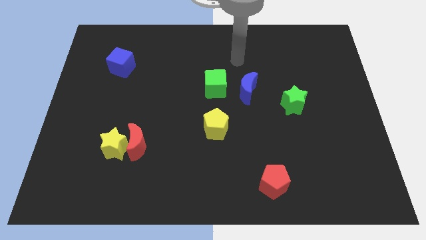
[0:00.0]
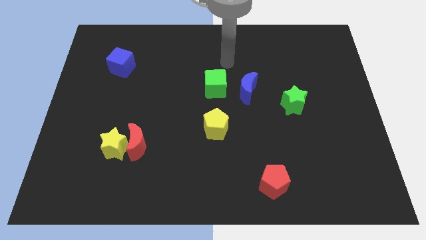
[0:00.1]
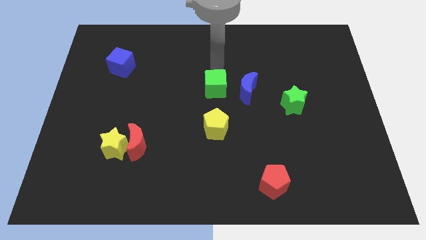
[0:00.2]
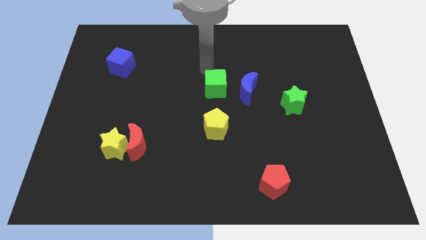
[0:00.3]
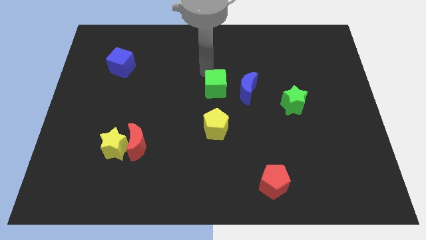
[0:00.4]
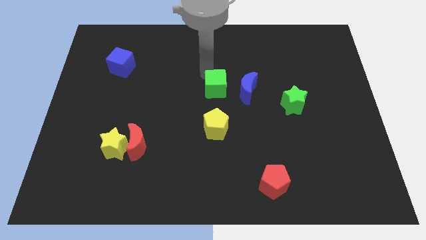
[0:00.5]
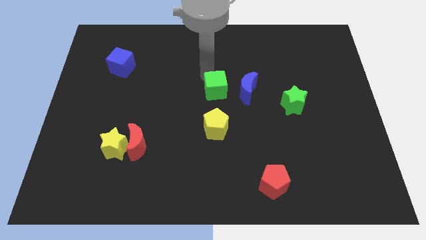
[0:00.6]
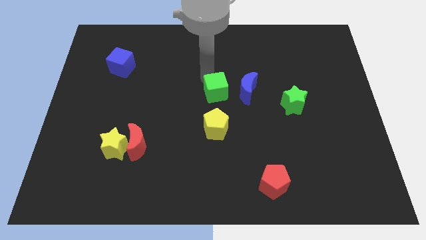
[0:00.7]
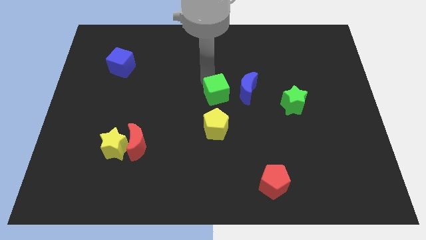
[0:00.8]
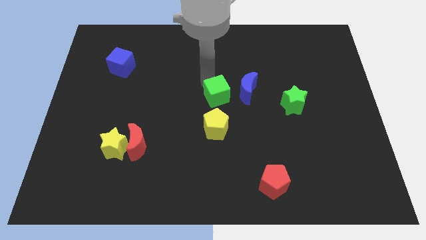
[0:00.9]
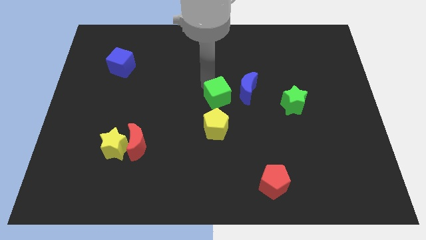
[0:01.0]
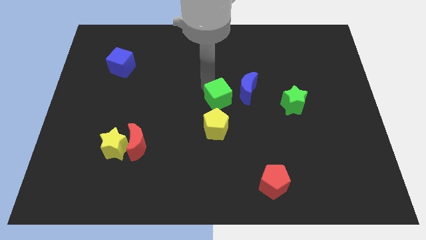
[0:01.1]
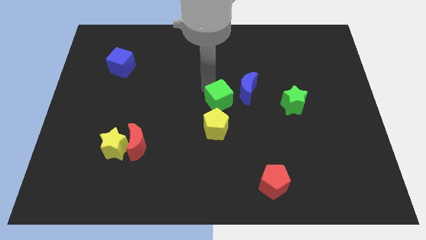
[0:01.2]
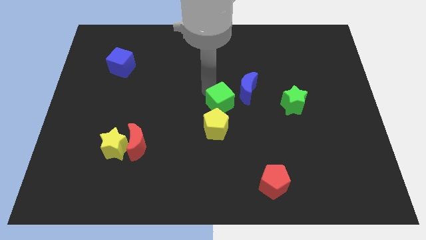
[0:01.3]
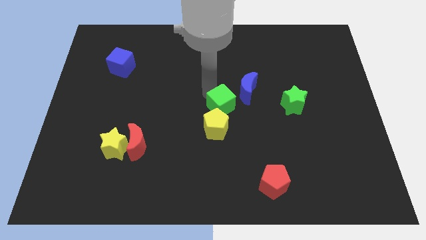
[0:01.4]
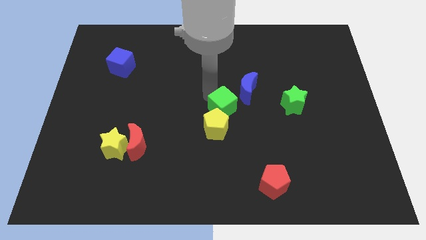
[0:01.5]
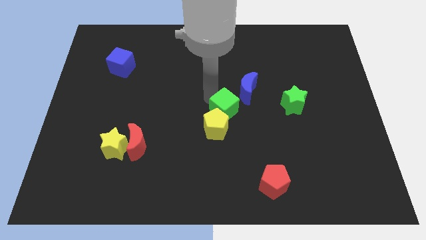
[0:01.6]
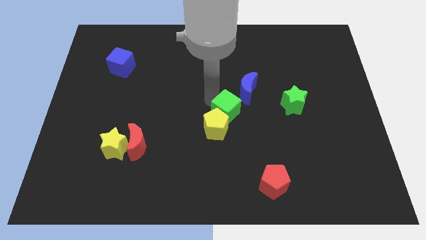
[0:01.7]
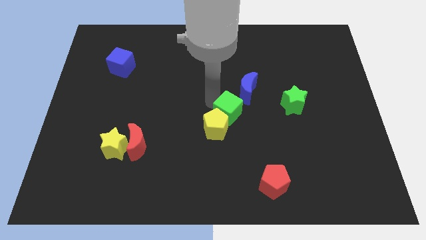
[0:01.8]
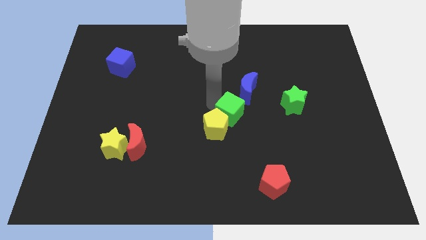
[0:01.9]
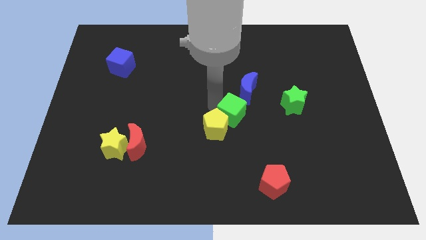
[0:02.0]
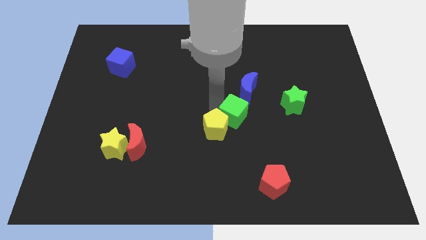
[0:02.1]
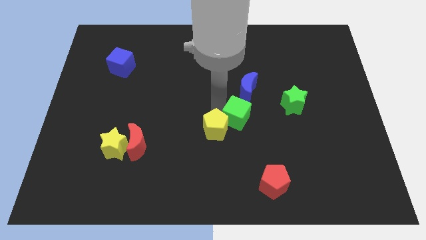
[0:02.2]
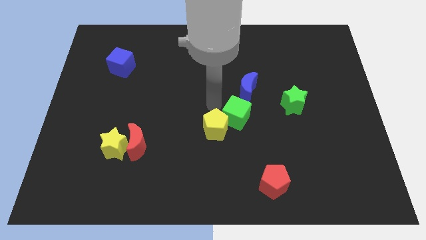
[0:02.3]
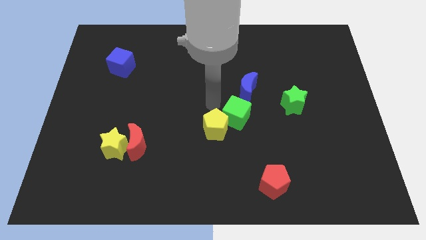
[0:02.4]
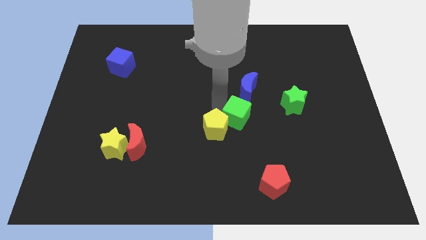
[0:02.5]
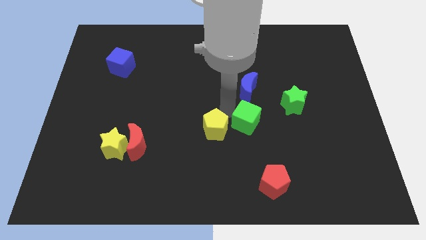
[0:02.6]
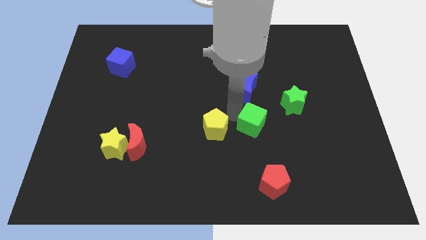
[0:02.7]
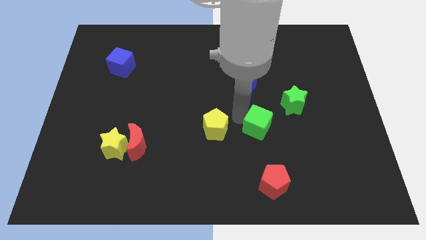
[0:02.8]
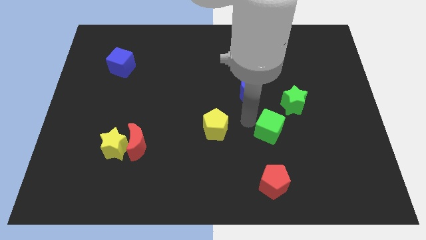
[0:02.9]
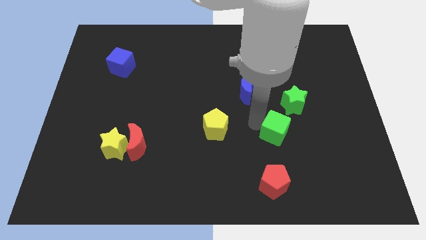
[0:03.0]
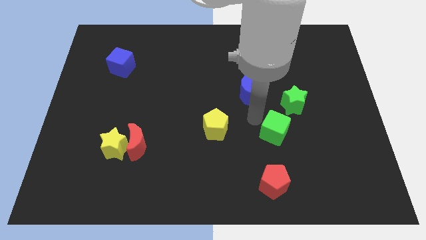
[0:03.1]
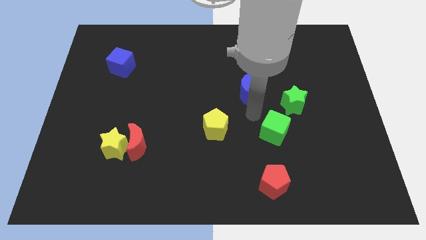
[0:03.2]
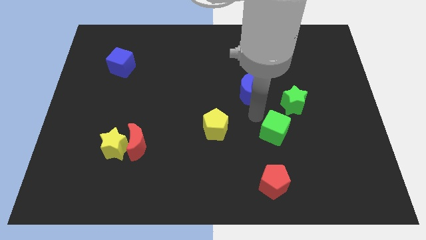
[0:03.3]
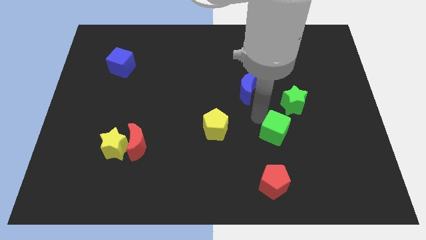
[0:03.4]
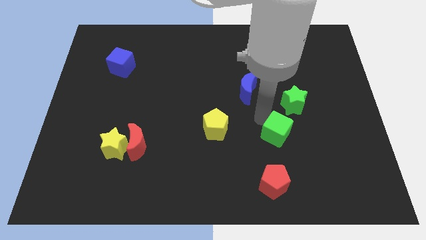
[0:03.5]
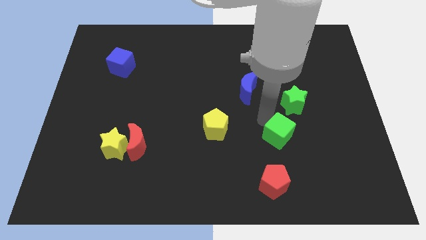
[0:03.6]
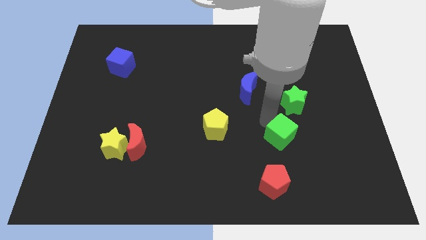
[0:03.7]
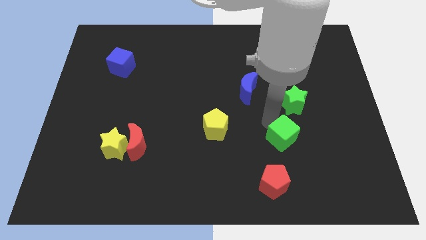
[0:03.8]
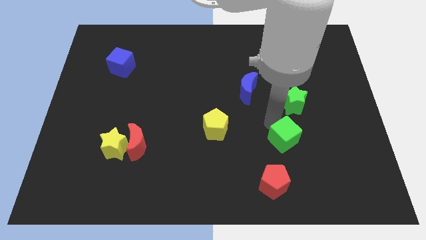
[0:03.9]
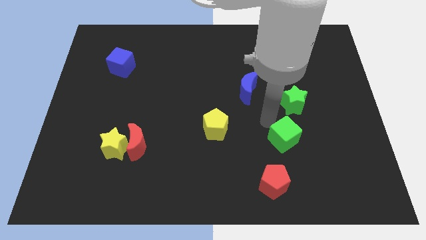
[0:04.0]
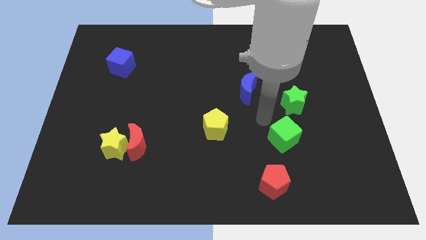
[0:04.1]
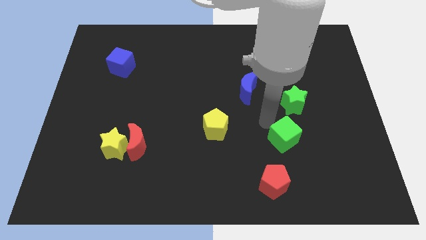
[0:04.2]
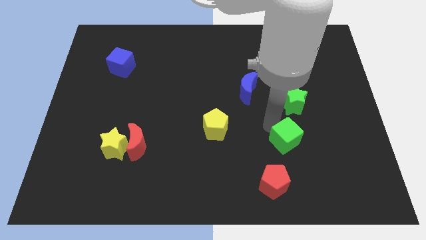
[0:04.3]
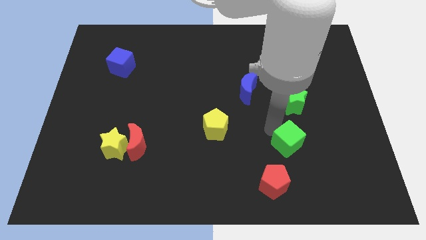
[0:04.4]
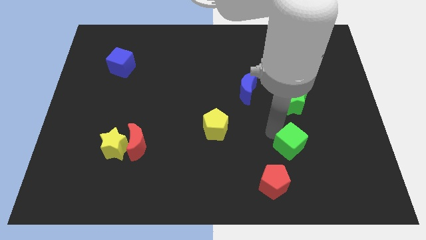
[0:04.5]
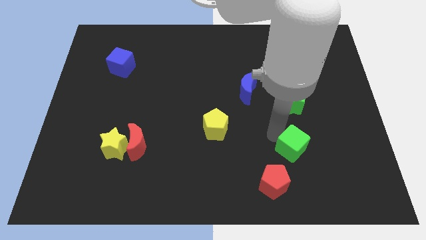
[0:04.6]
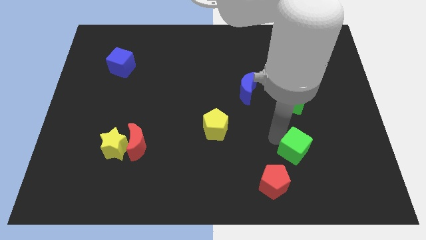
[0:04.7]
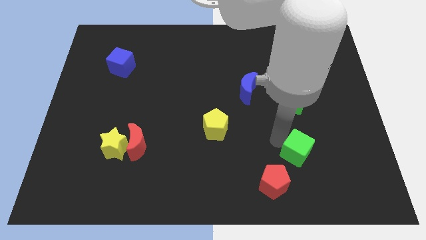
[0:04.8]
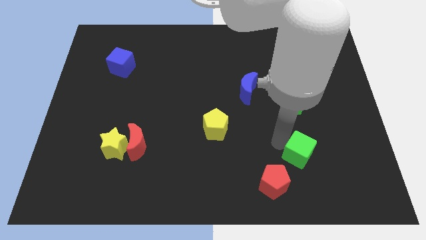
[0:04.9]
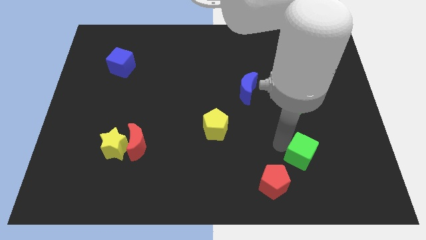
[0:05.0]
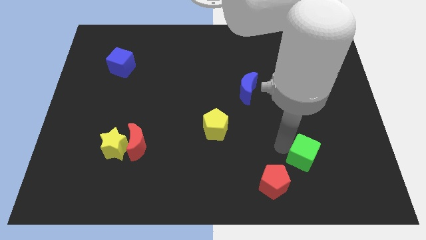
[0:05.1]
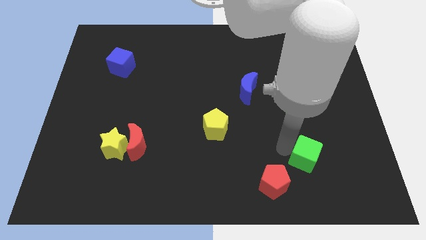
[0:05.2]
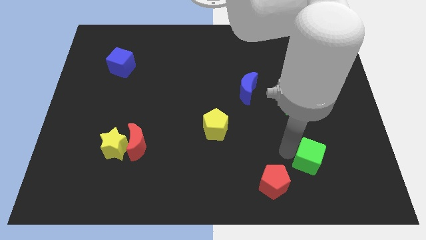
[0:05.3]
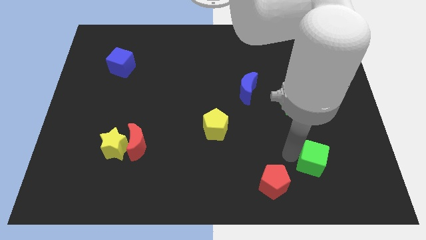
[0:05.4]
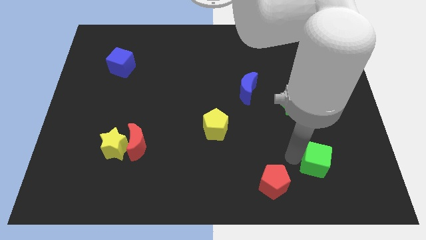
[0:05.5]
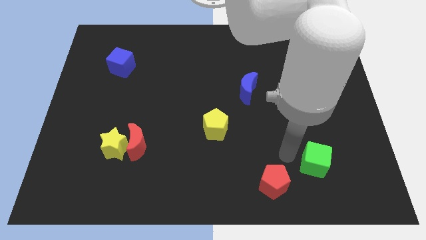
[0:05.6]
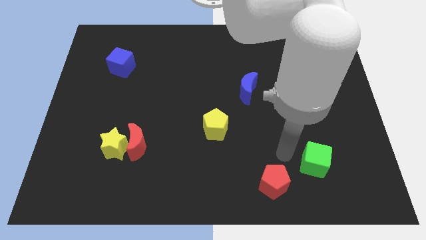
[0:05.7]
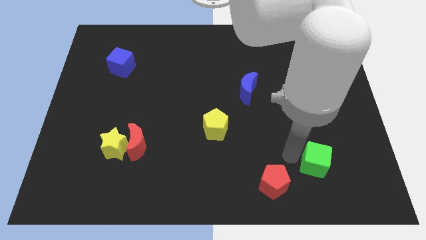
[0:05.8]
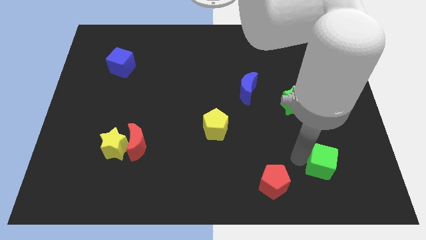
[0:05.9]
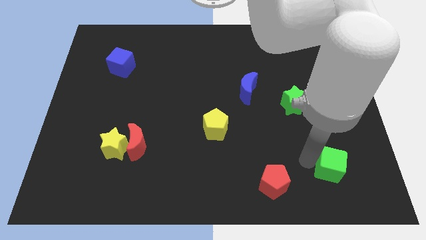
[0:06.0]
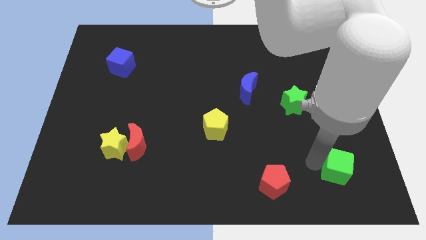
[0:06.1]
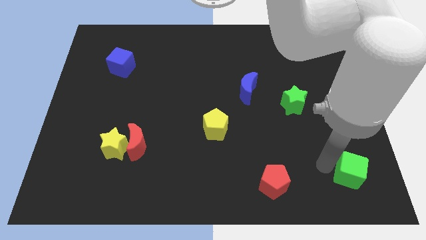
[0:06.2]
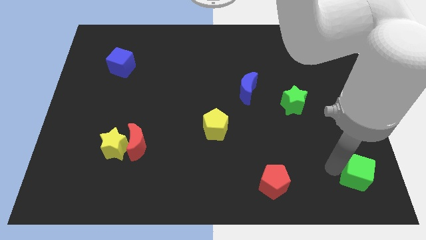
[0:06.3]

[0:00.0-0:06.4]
move the green cube to the bottom right of the board

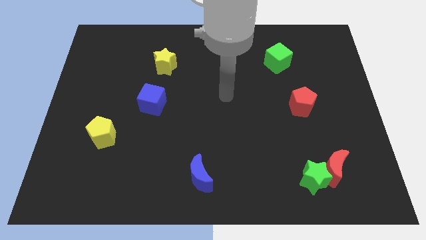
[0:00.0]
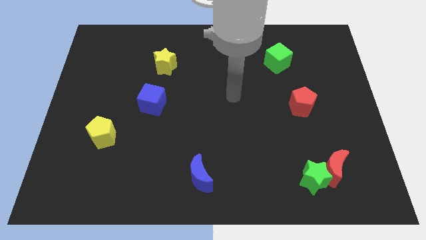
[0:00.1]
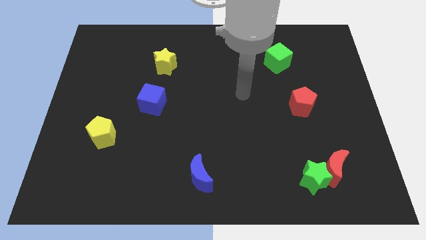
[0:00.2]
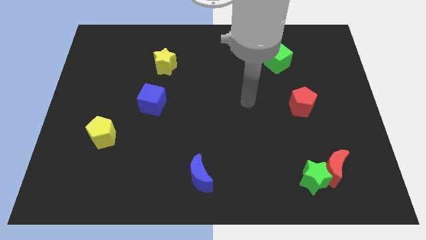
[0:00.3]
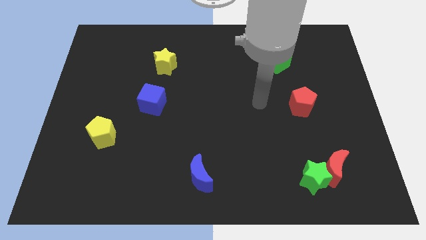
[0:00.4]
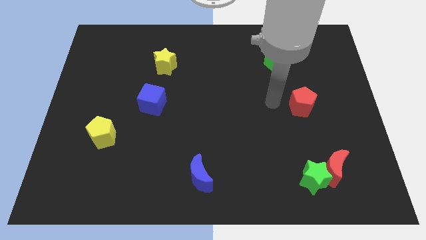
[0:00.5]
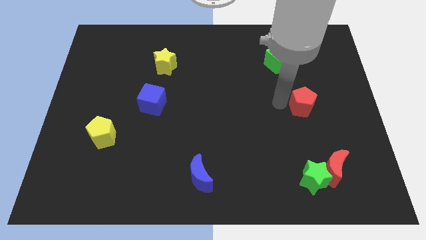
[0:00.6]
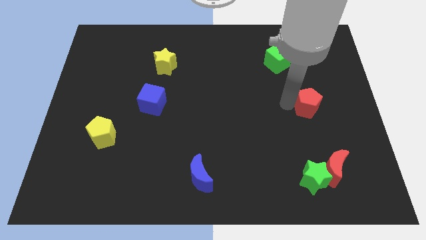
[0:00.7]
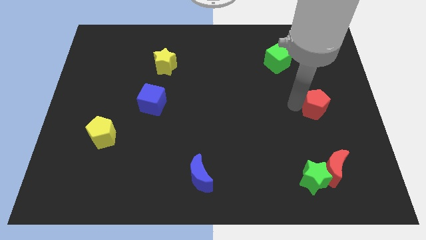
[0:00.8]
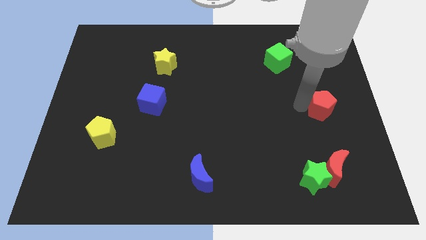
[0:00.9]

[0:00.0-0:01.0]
push the red pentagon to the right side
